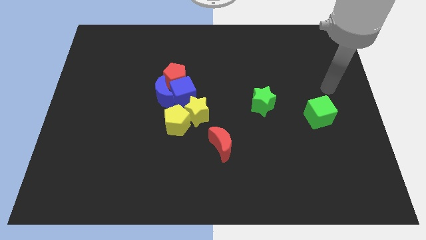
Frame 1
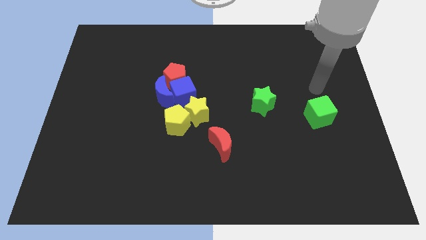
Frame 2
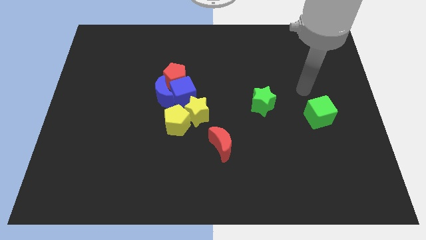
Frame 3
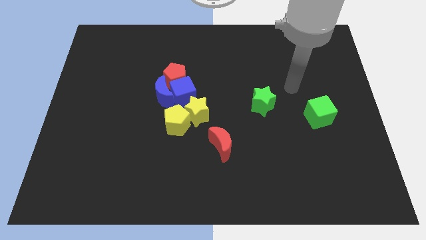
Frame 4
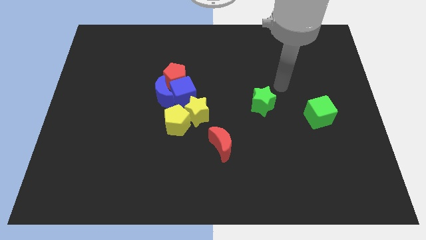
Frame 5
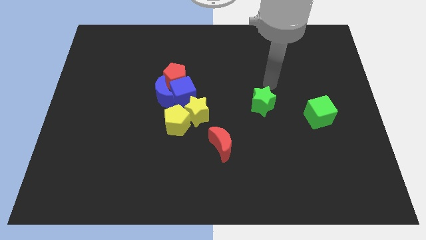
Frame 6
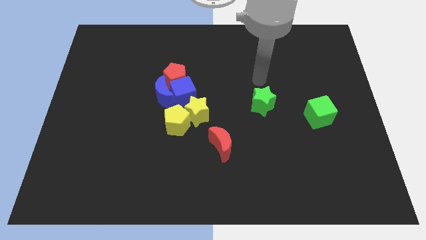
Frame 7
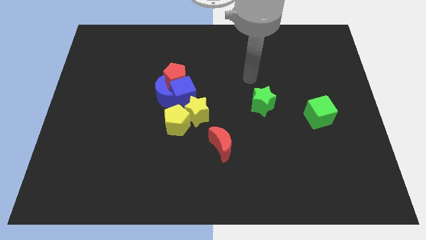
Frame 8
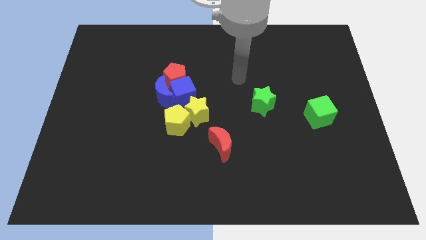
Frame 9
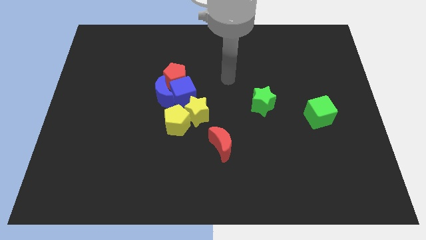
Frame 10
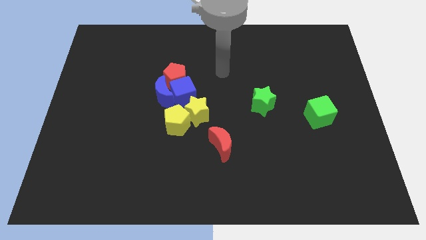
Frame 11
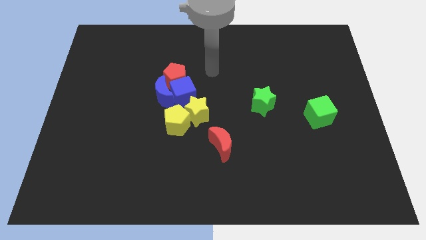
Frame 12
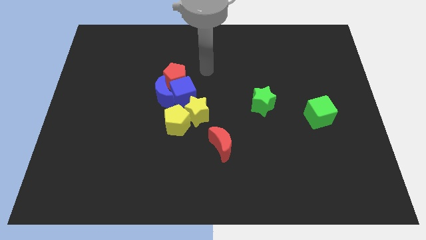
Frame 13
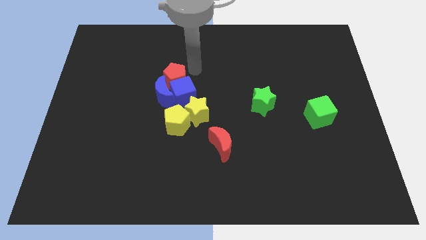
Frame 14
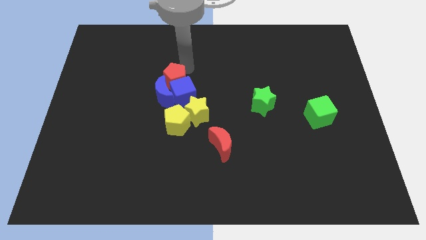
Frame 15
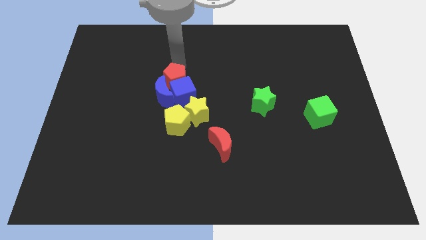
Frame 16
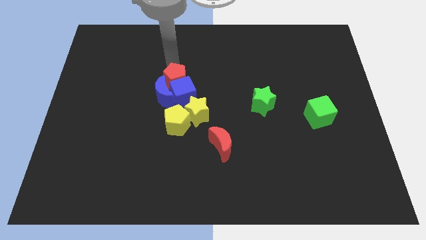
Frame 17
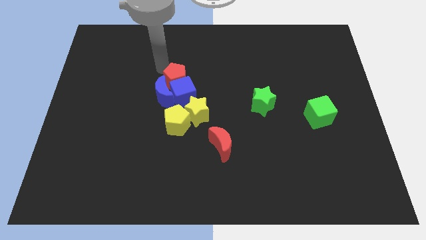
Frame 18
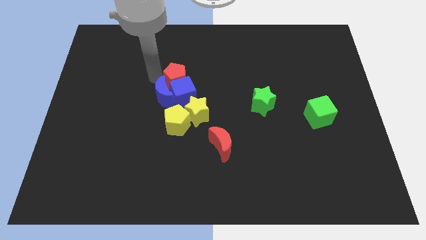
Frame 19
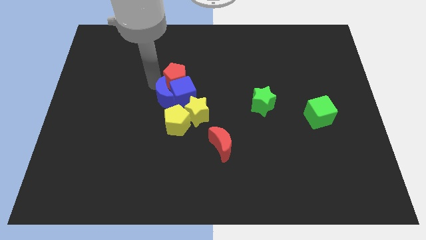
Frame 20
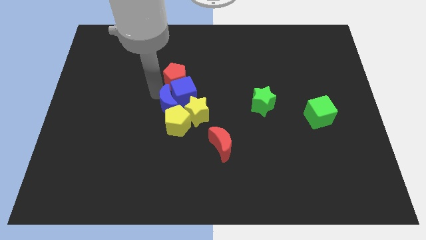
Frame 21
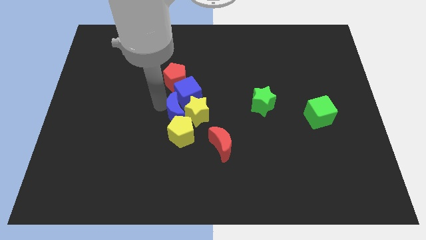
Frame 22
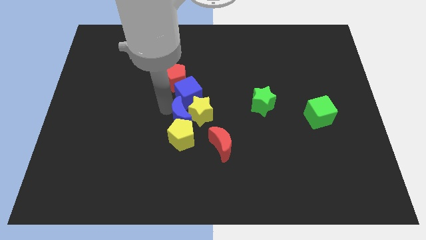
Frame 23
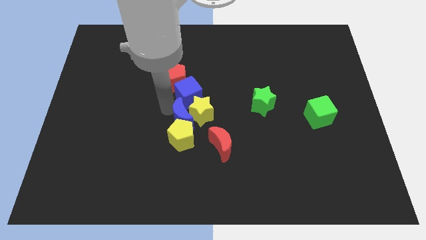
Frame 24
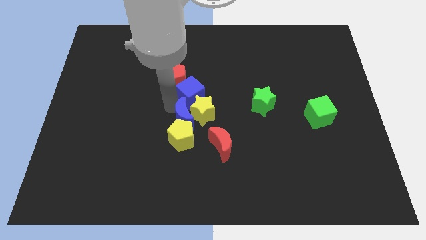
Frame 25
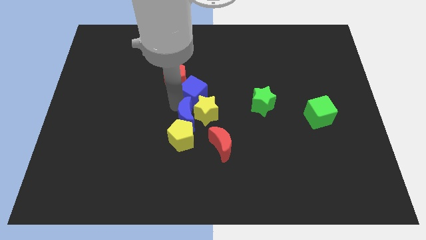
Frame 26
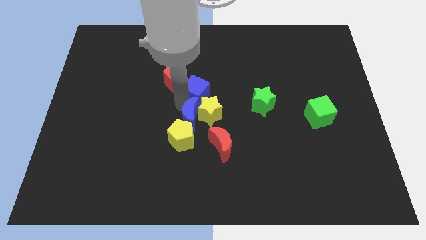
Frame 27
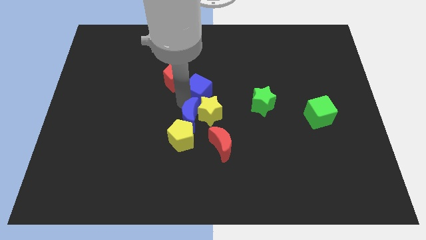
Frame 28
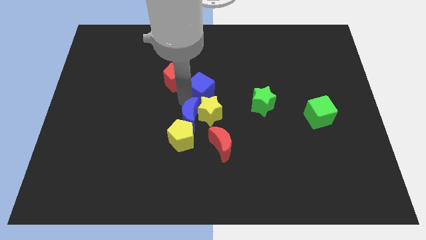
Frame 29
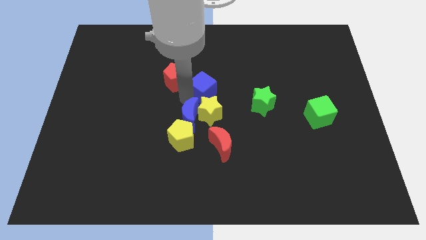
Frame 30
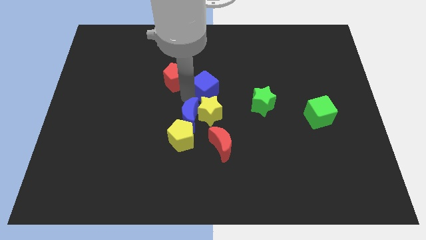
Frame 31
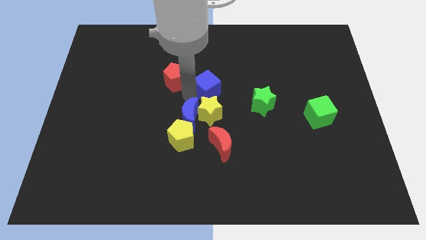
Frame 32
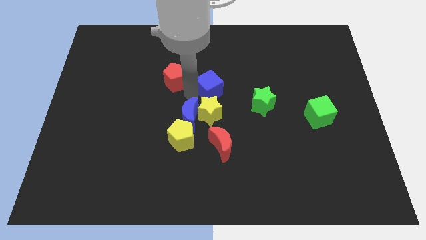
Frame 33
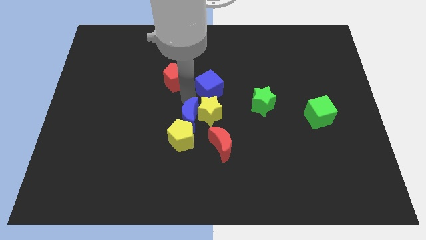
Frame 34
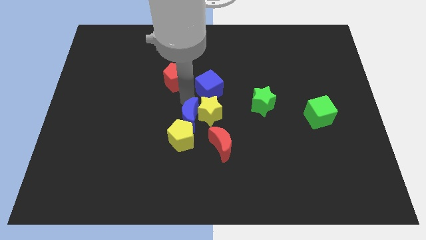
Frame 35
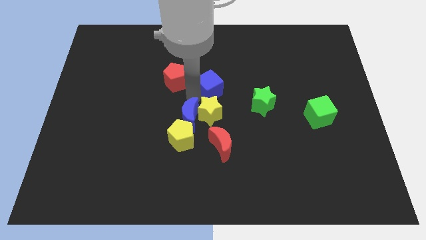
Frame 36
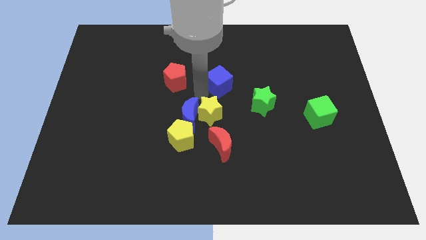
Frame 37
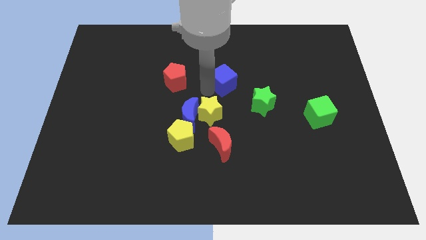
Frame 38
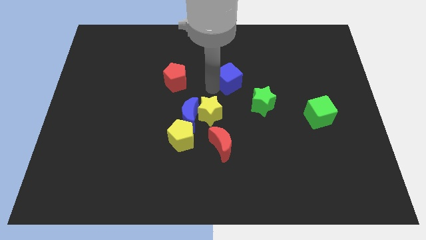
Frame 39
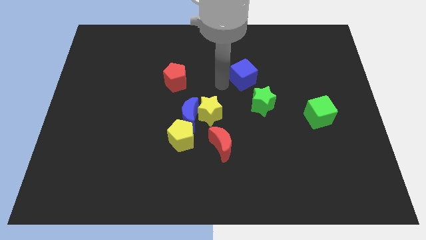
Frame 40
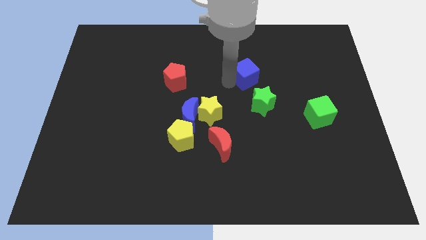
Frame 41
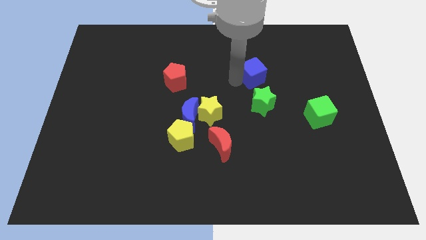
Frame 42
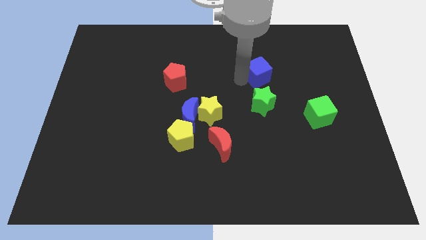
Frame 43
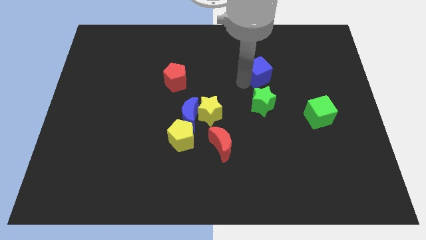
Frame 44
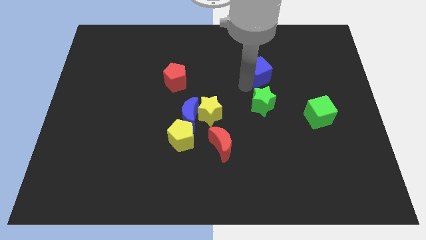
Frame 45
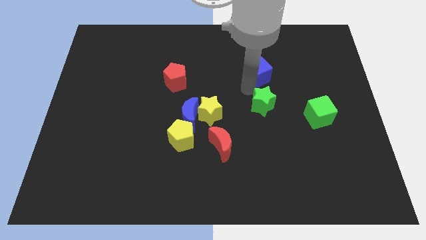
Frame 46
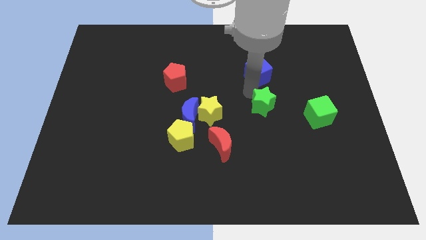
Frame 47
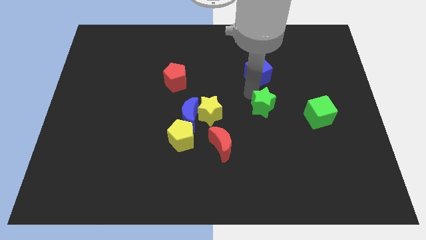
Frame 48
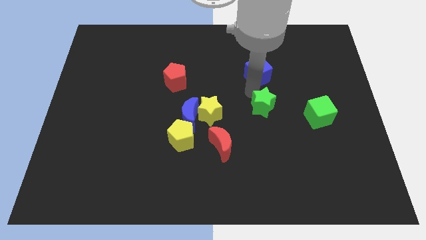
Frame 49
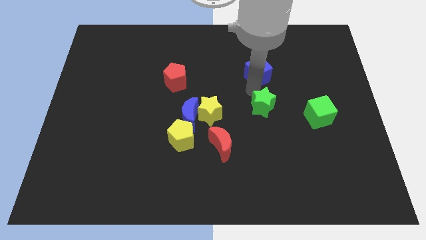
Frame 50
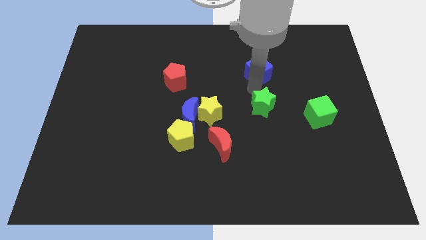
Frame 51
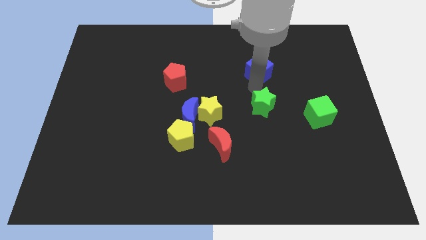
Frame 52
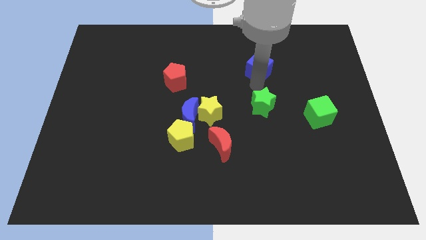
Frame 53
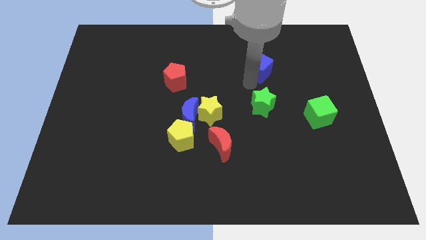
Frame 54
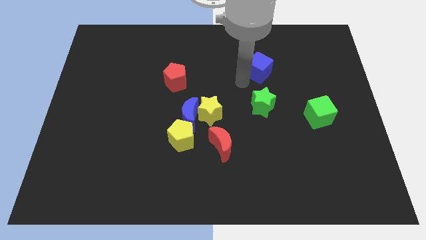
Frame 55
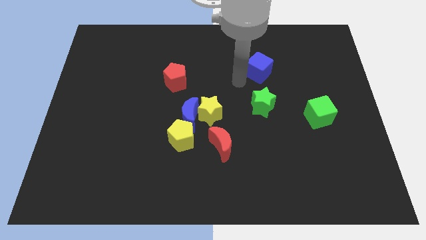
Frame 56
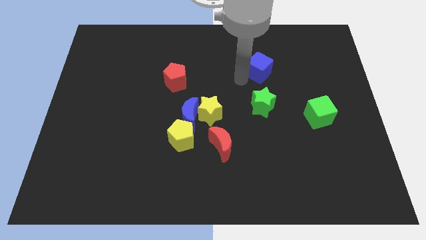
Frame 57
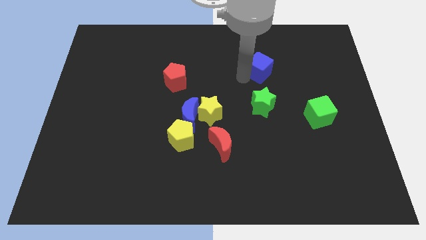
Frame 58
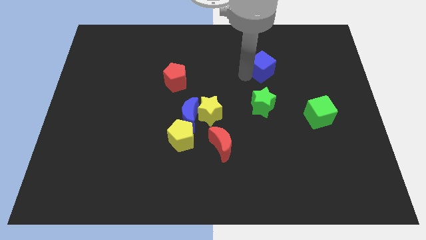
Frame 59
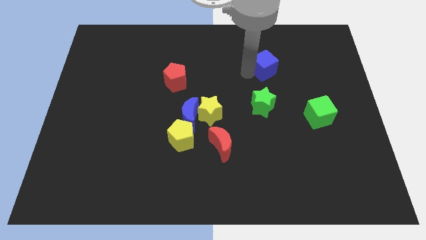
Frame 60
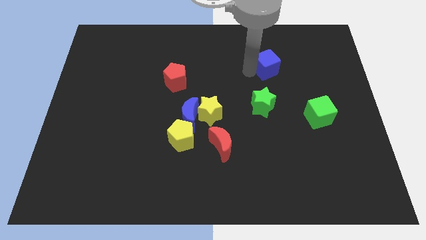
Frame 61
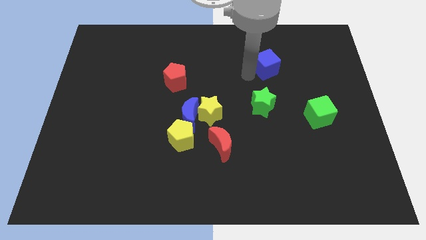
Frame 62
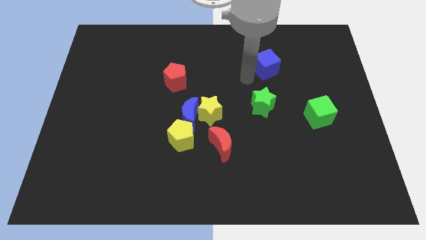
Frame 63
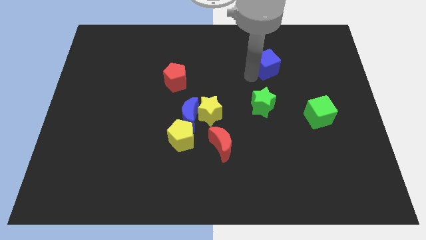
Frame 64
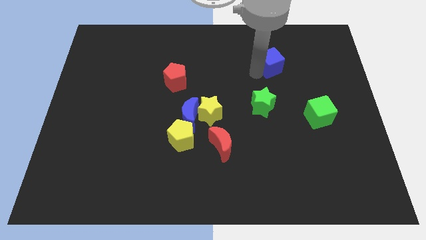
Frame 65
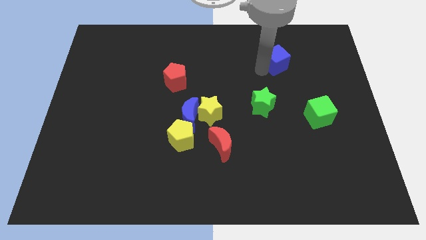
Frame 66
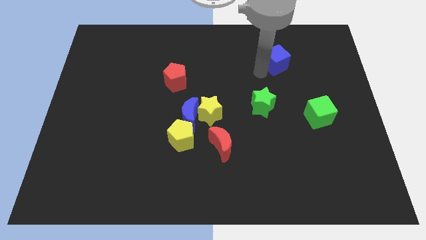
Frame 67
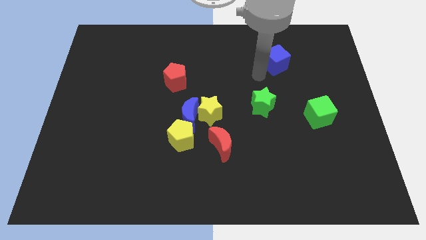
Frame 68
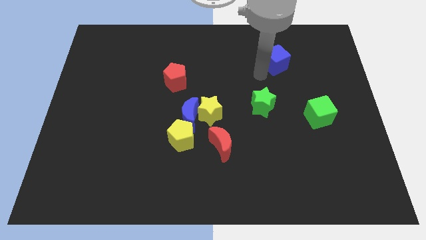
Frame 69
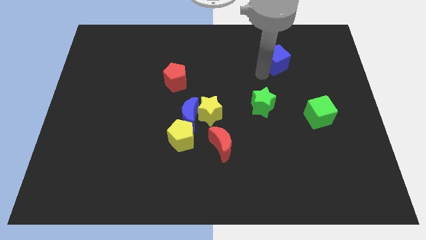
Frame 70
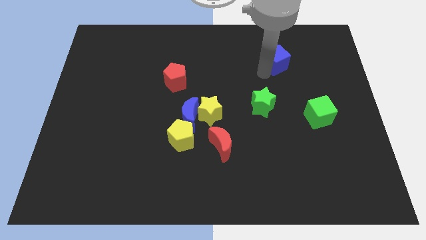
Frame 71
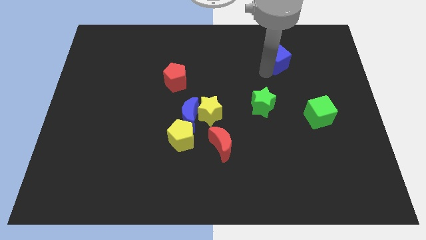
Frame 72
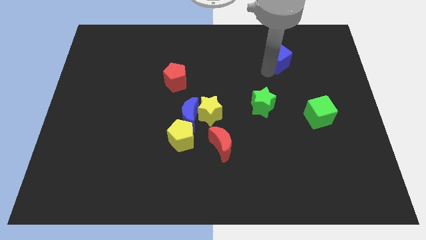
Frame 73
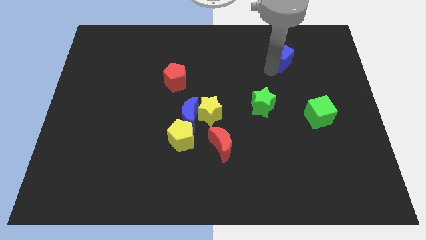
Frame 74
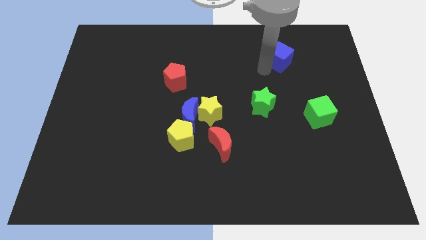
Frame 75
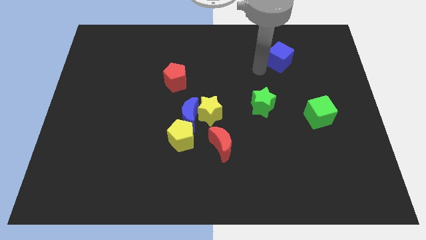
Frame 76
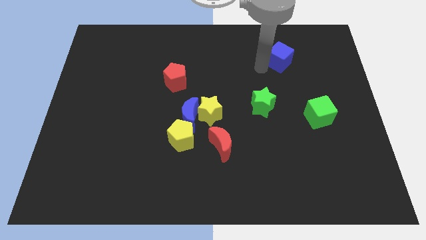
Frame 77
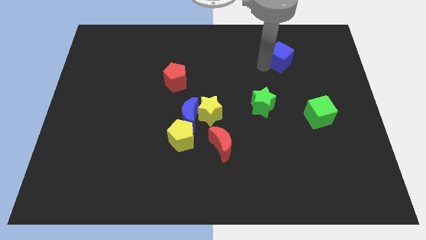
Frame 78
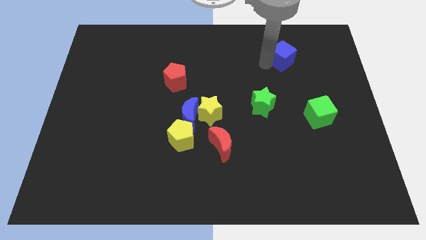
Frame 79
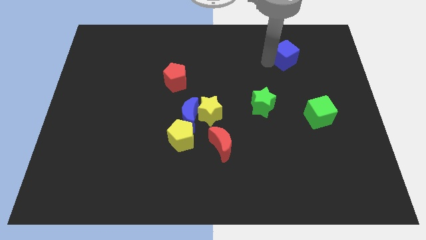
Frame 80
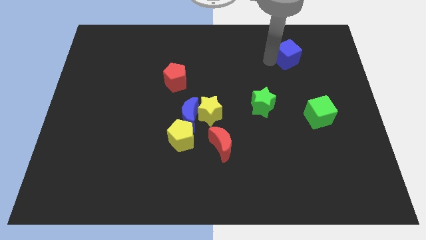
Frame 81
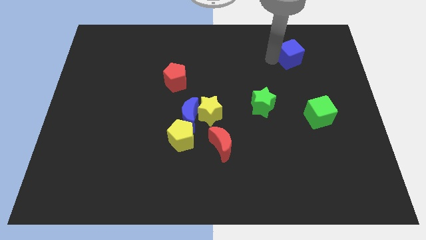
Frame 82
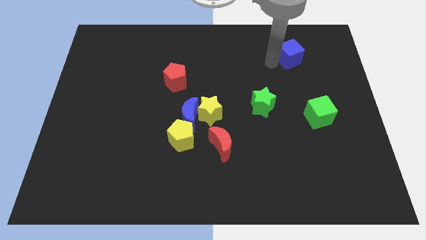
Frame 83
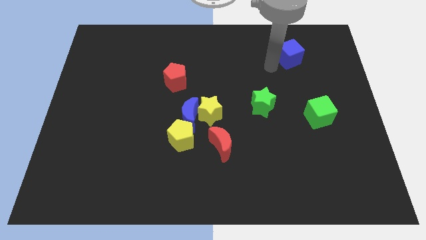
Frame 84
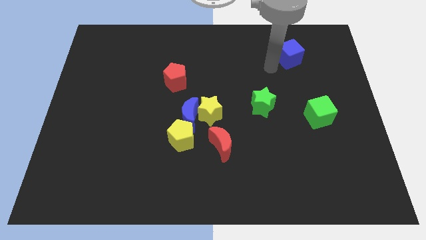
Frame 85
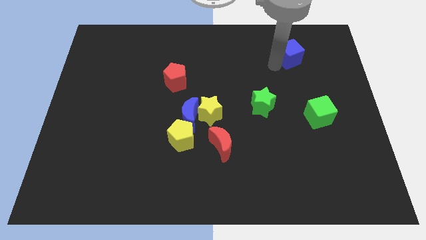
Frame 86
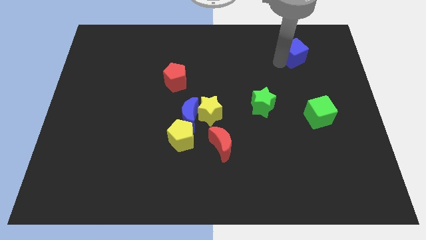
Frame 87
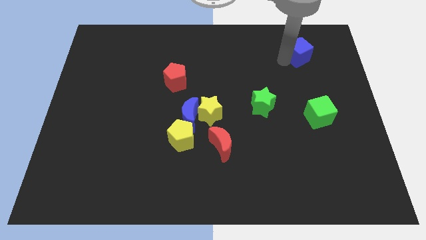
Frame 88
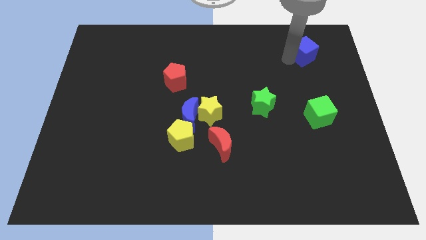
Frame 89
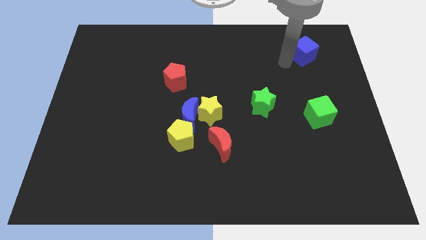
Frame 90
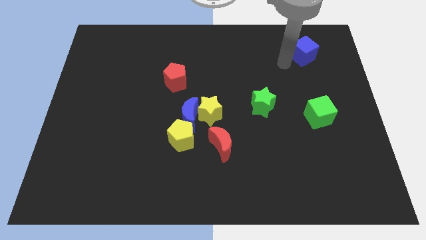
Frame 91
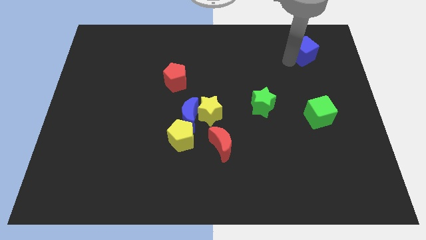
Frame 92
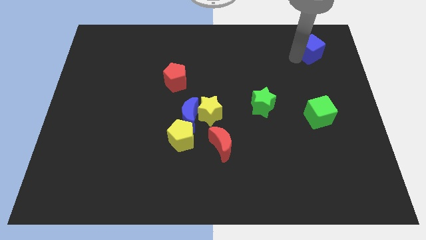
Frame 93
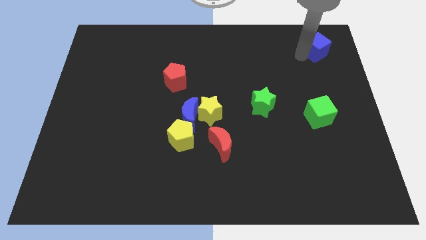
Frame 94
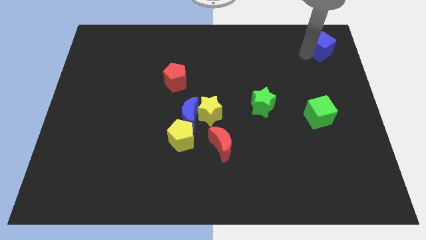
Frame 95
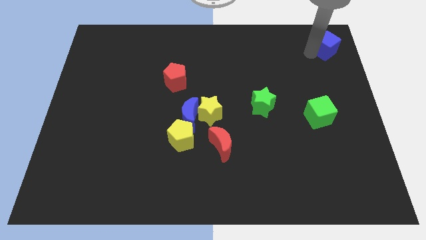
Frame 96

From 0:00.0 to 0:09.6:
slide the blue cube to the top right corner
